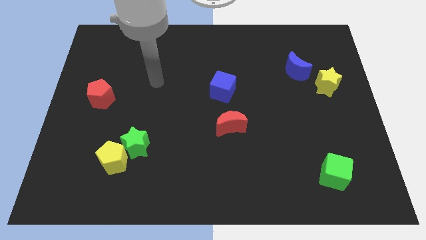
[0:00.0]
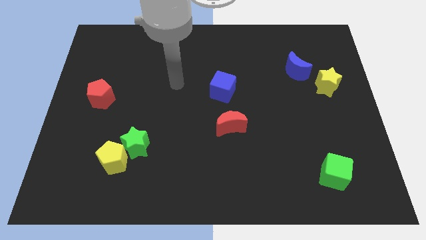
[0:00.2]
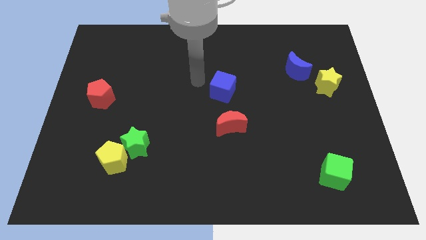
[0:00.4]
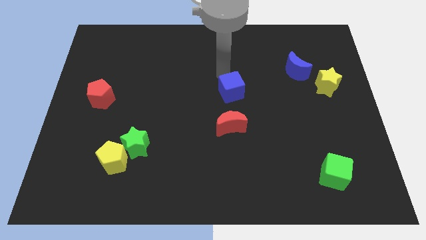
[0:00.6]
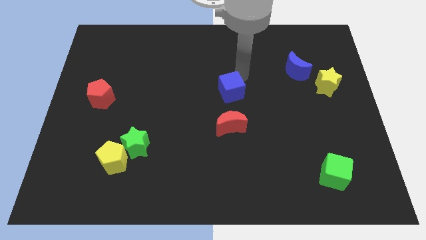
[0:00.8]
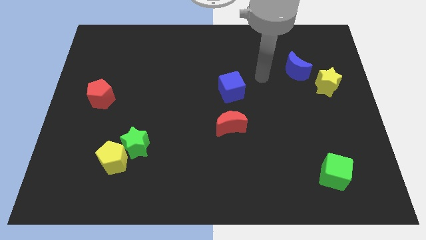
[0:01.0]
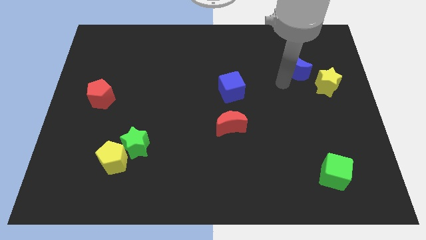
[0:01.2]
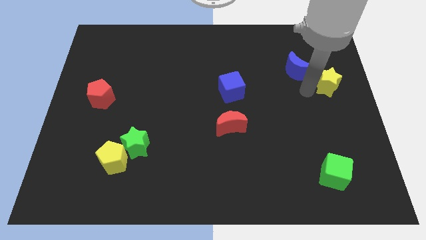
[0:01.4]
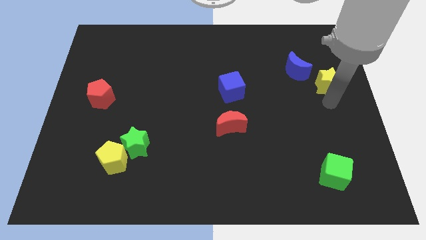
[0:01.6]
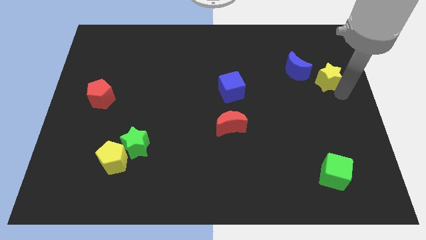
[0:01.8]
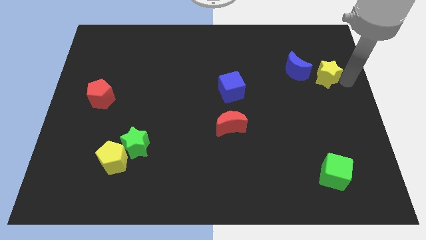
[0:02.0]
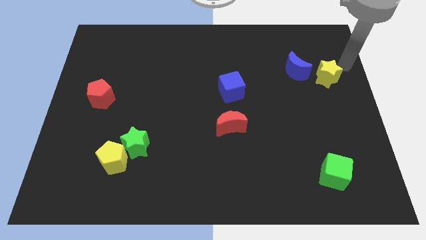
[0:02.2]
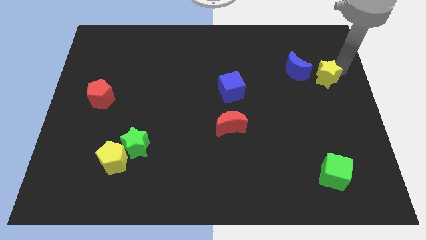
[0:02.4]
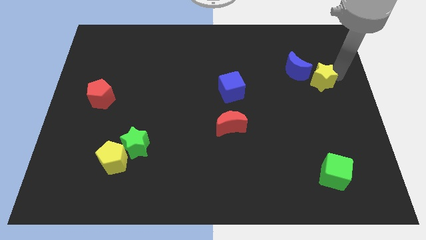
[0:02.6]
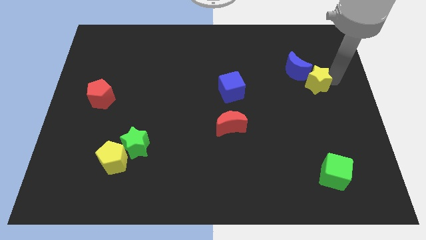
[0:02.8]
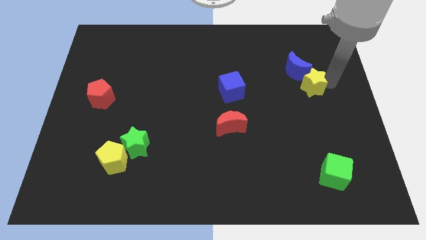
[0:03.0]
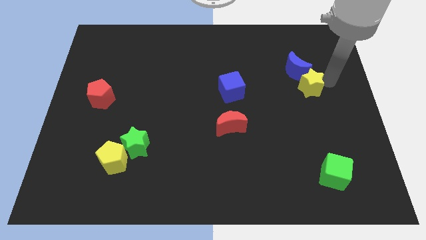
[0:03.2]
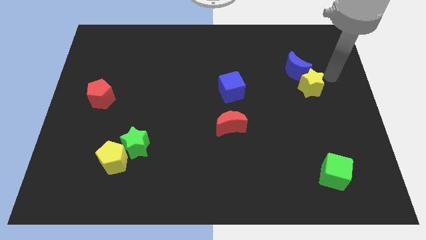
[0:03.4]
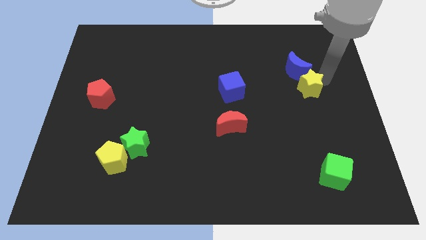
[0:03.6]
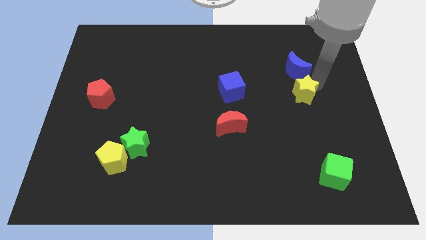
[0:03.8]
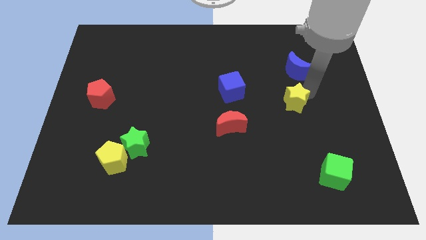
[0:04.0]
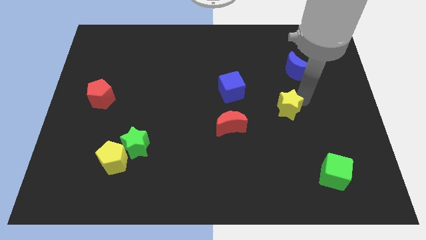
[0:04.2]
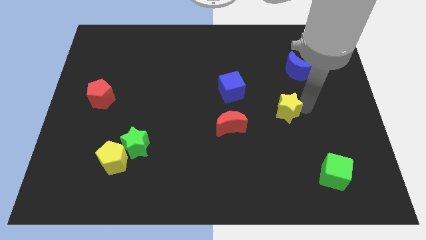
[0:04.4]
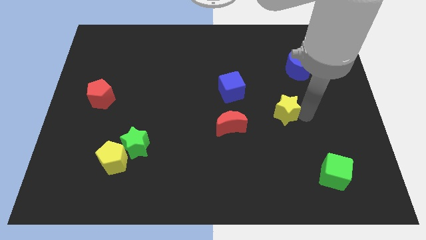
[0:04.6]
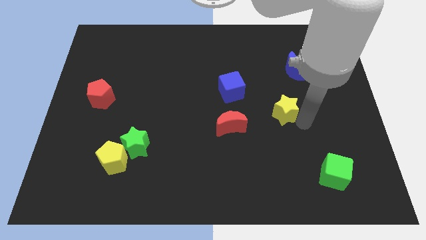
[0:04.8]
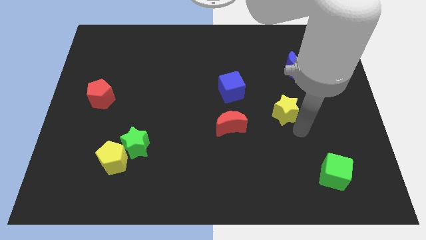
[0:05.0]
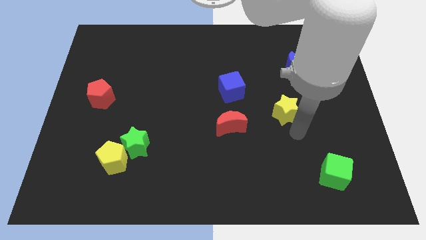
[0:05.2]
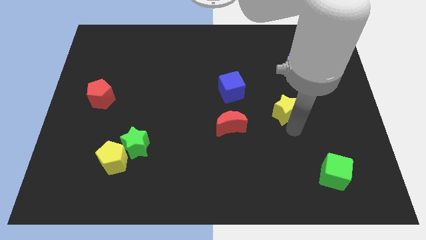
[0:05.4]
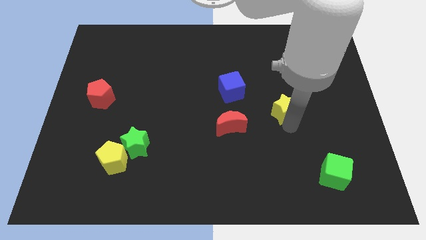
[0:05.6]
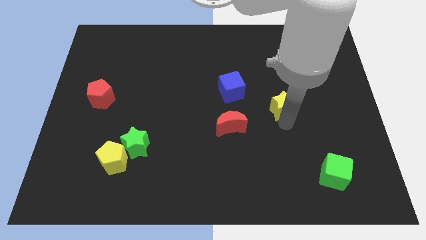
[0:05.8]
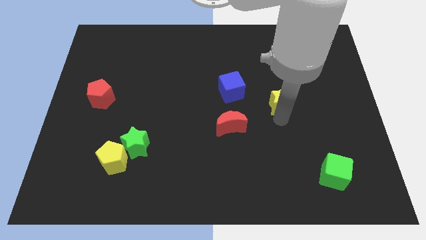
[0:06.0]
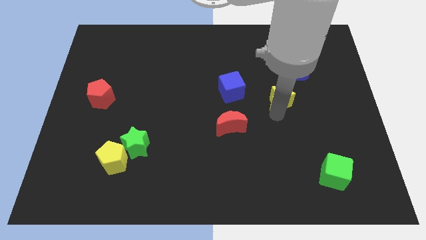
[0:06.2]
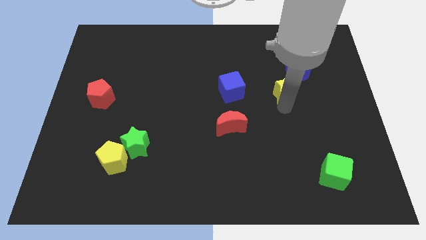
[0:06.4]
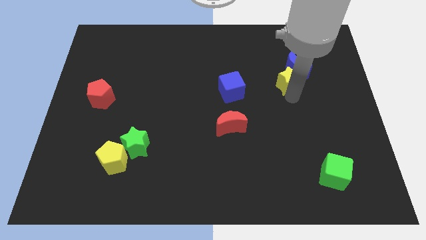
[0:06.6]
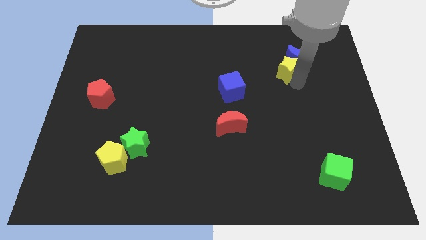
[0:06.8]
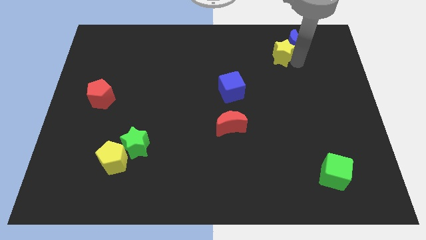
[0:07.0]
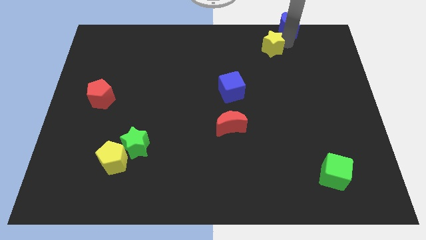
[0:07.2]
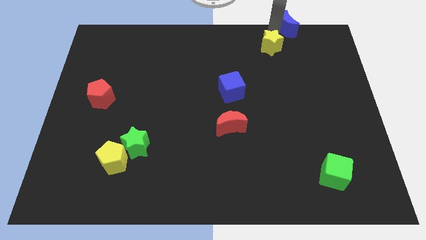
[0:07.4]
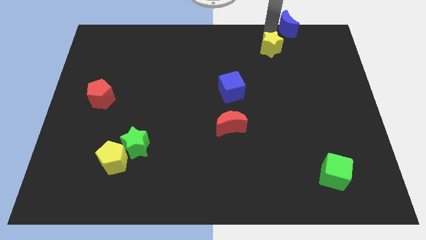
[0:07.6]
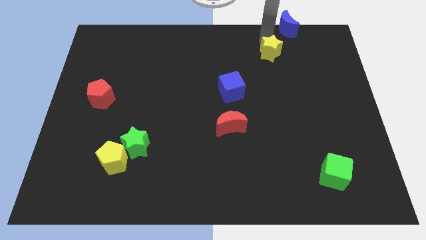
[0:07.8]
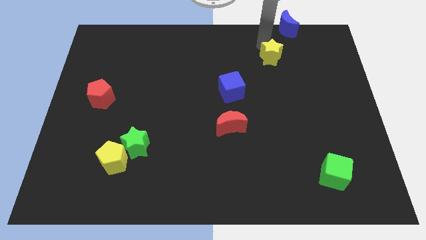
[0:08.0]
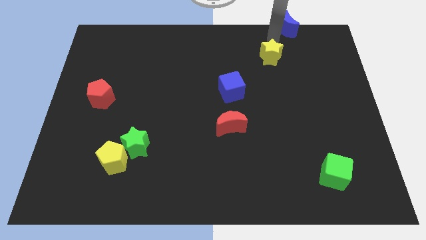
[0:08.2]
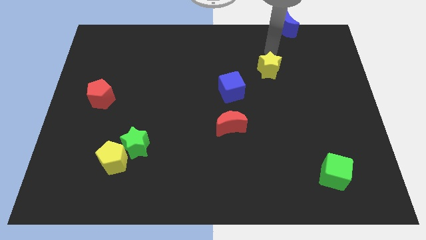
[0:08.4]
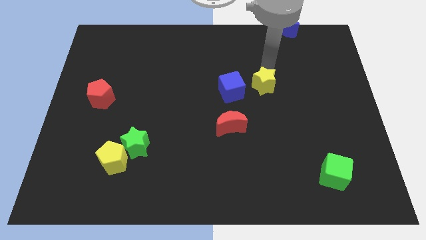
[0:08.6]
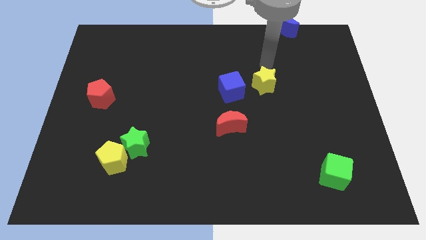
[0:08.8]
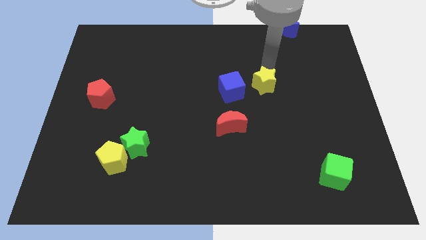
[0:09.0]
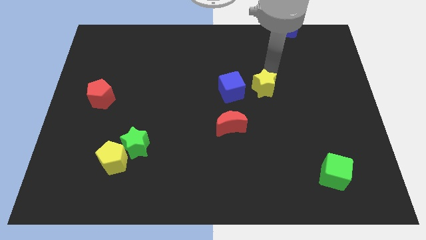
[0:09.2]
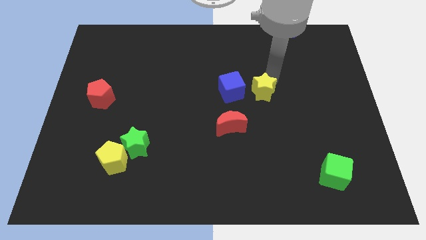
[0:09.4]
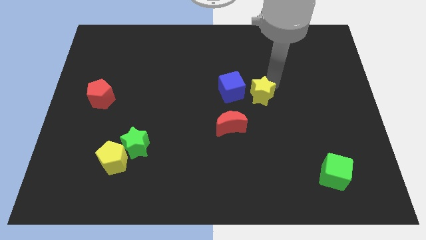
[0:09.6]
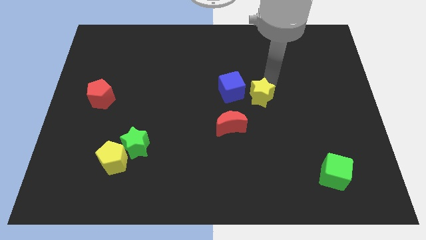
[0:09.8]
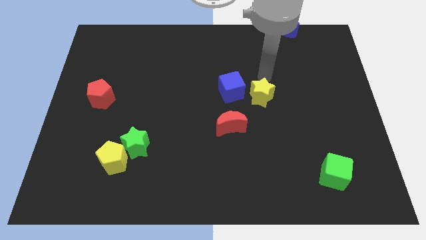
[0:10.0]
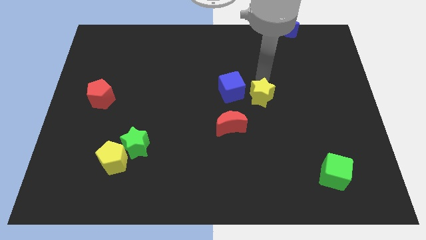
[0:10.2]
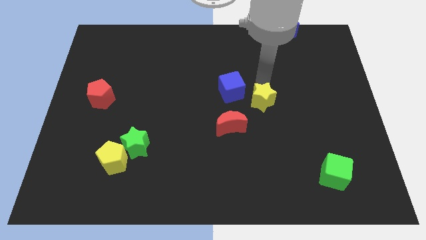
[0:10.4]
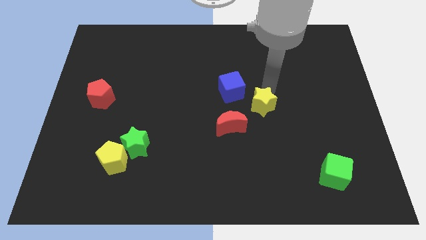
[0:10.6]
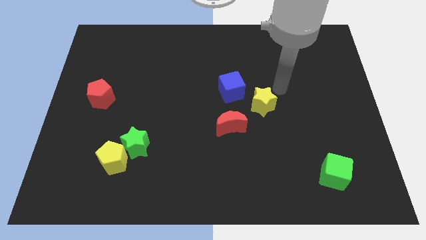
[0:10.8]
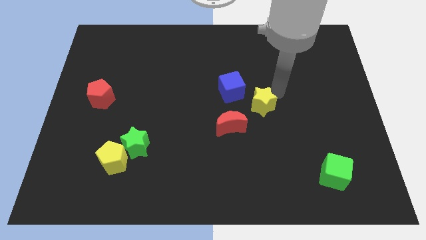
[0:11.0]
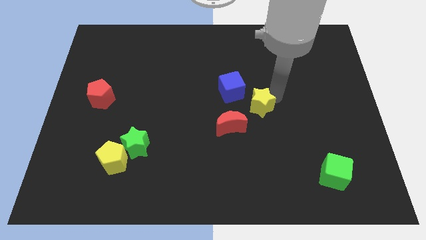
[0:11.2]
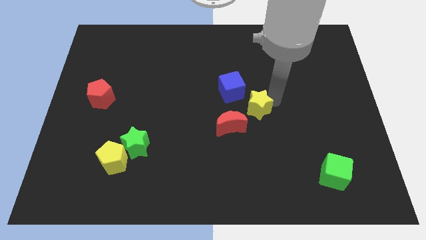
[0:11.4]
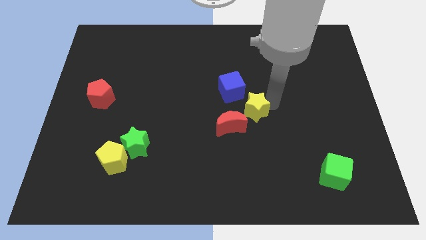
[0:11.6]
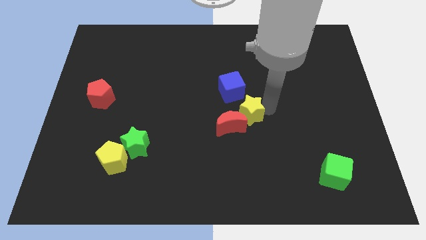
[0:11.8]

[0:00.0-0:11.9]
move the yellow star close to the red moon
